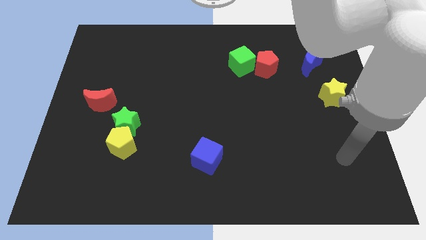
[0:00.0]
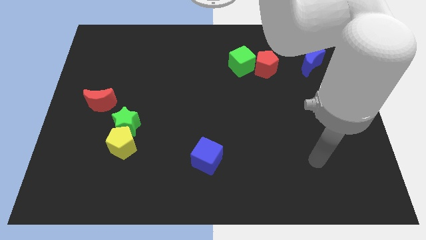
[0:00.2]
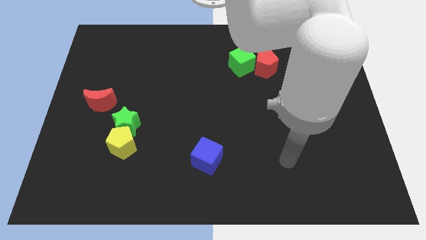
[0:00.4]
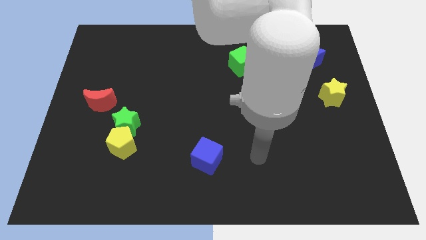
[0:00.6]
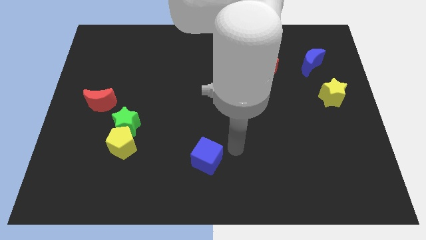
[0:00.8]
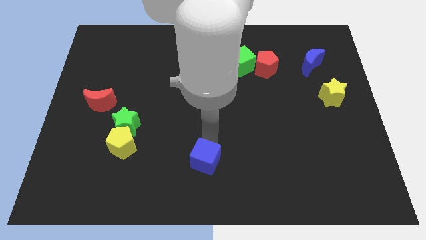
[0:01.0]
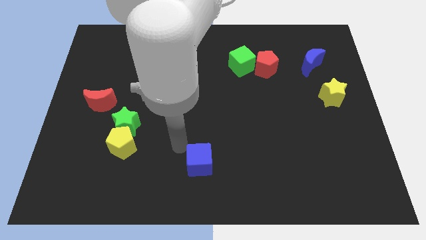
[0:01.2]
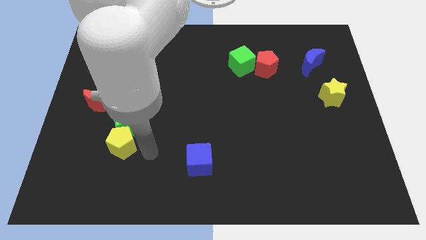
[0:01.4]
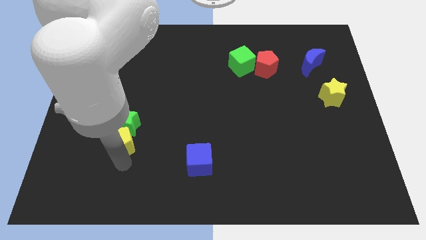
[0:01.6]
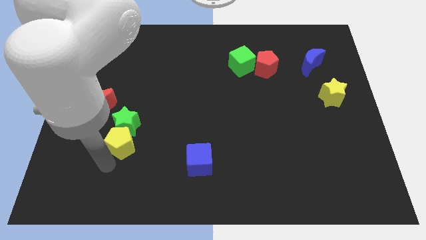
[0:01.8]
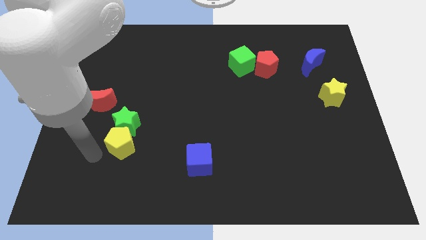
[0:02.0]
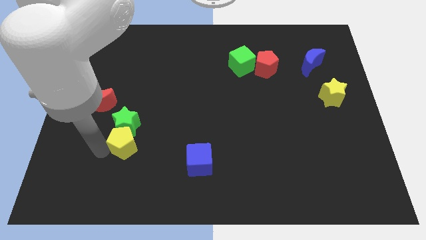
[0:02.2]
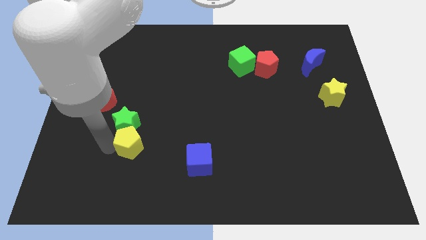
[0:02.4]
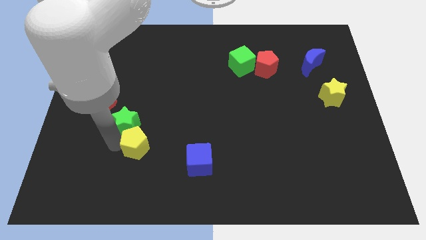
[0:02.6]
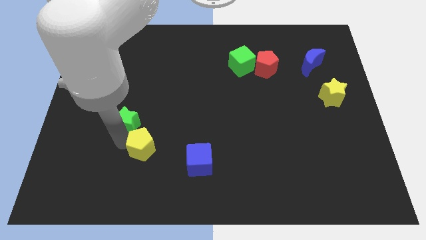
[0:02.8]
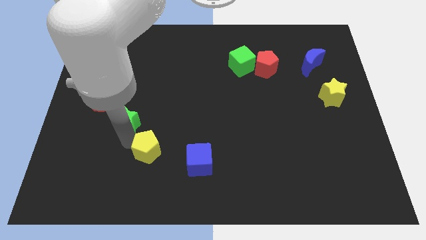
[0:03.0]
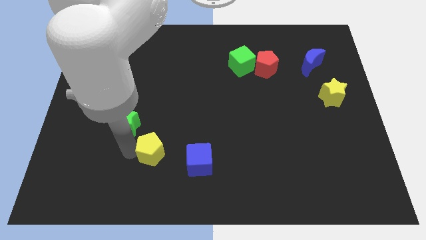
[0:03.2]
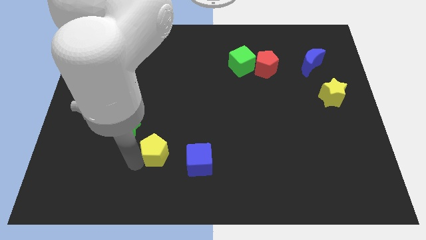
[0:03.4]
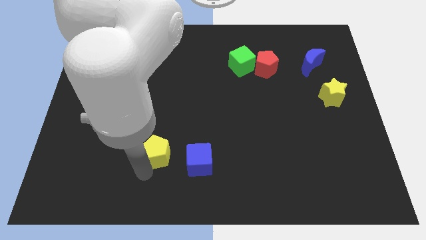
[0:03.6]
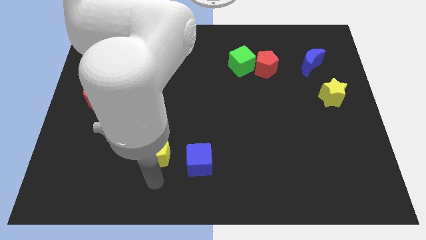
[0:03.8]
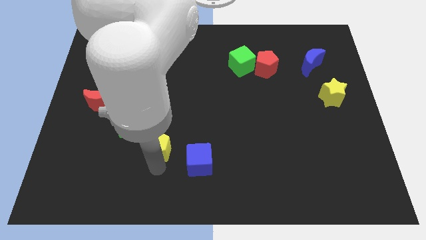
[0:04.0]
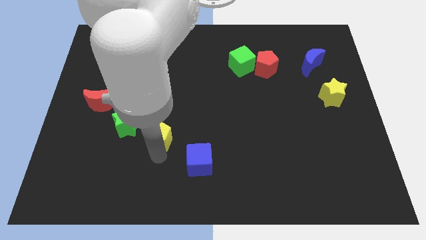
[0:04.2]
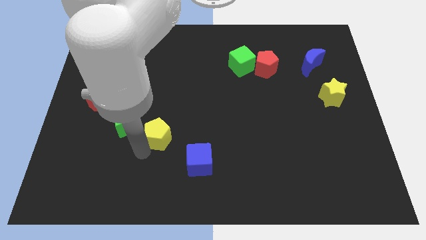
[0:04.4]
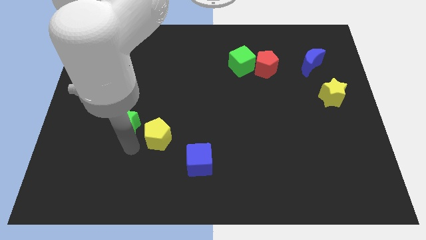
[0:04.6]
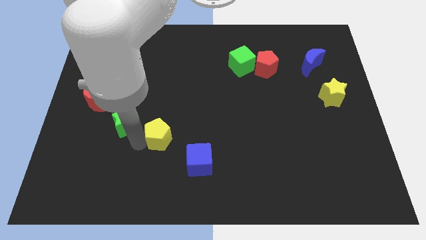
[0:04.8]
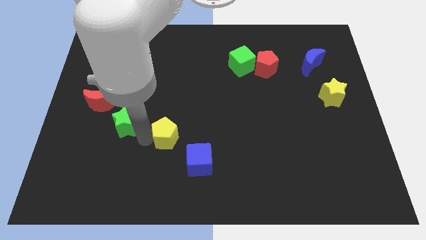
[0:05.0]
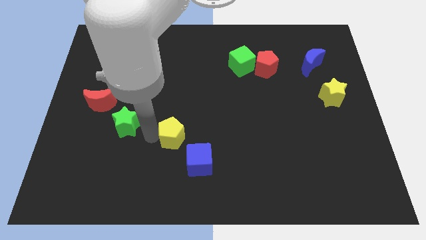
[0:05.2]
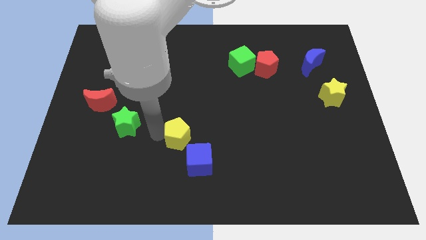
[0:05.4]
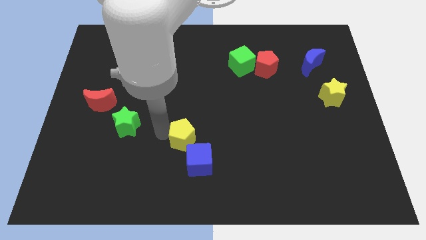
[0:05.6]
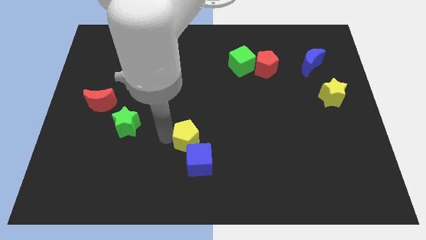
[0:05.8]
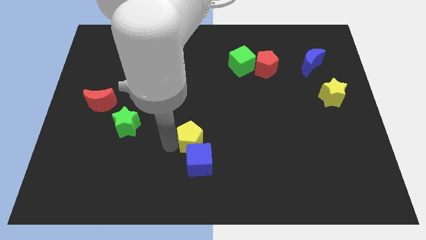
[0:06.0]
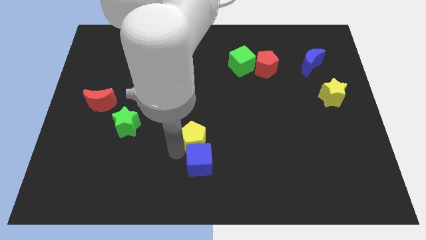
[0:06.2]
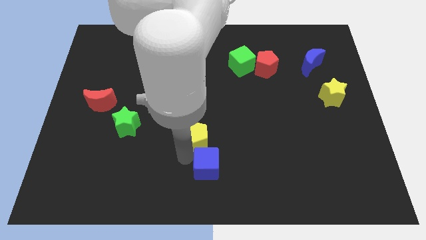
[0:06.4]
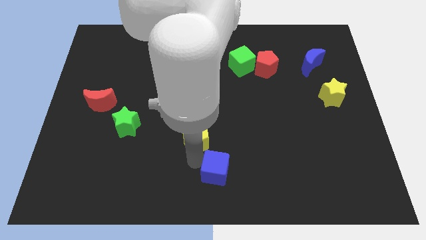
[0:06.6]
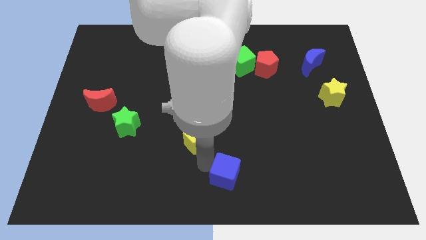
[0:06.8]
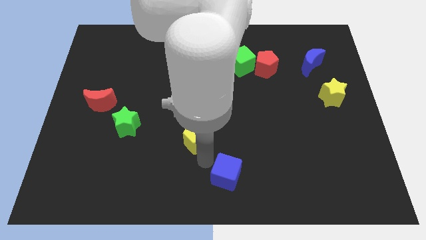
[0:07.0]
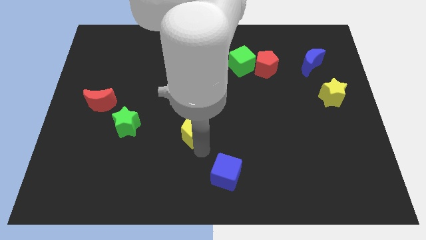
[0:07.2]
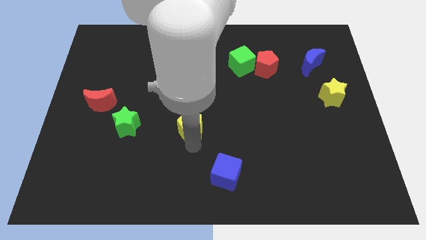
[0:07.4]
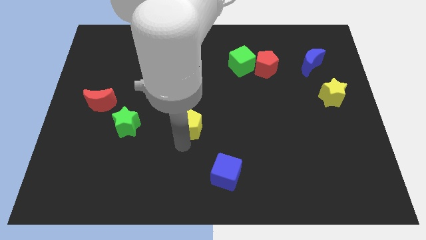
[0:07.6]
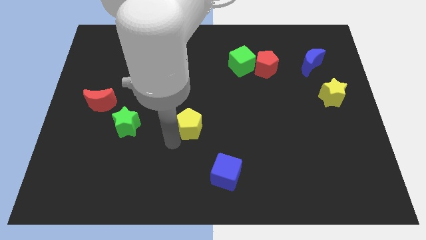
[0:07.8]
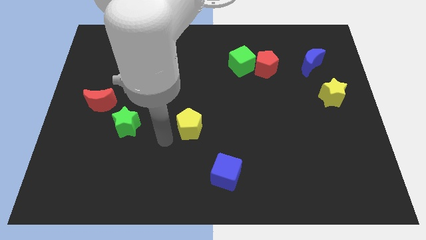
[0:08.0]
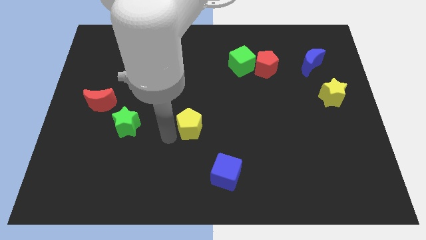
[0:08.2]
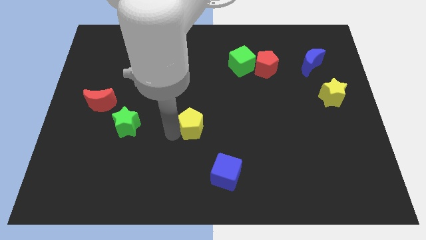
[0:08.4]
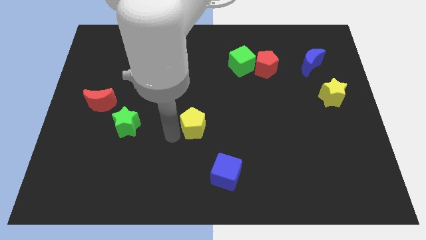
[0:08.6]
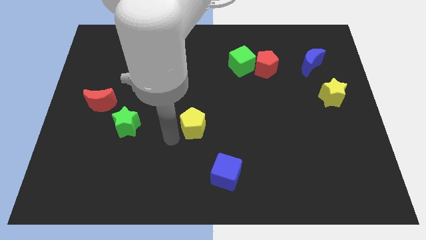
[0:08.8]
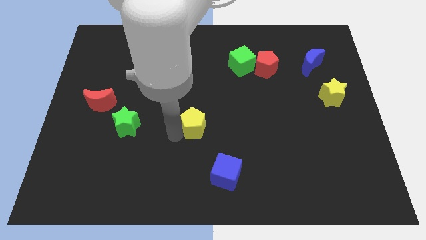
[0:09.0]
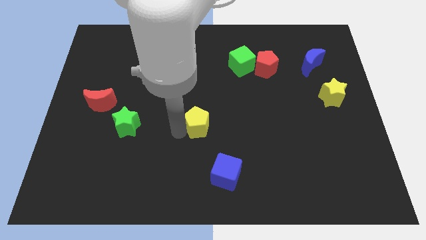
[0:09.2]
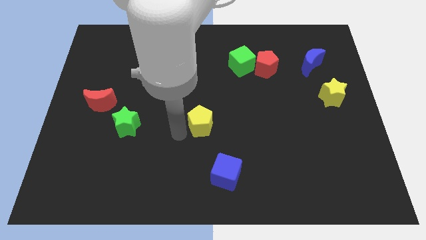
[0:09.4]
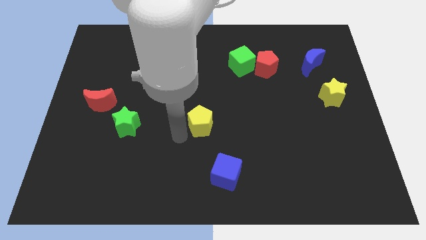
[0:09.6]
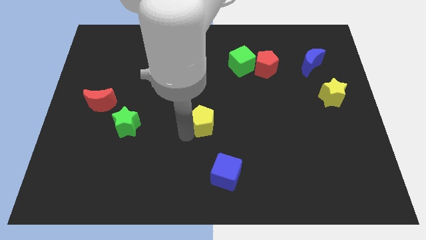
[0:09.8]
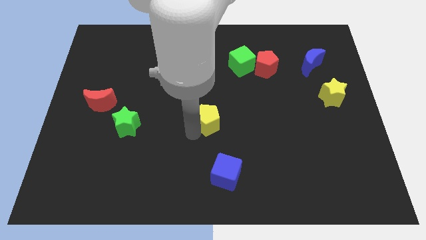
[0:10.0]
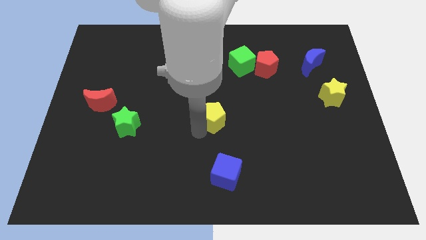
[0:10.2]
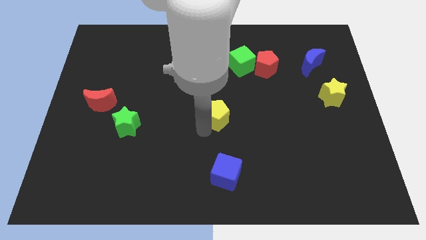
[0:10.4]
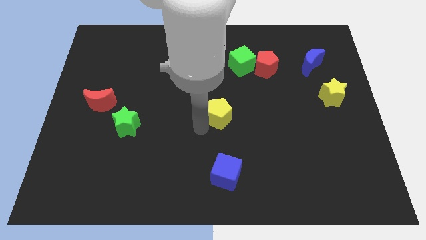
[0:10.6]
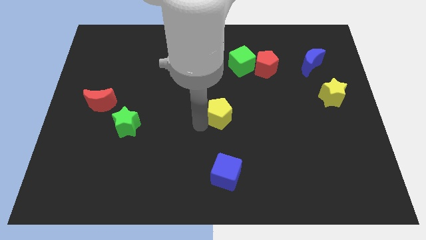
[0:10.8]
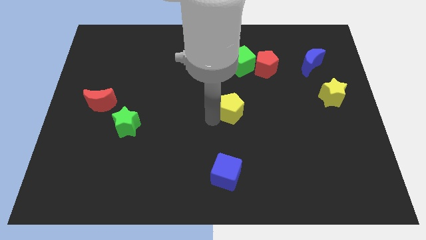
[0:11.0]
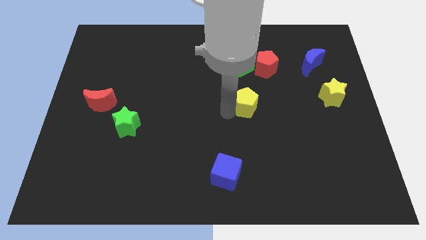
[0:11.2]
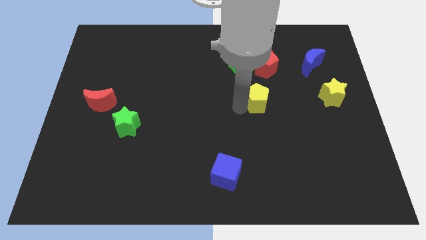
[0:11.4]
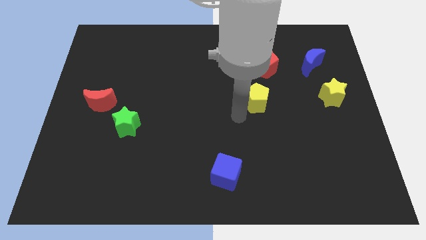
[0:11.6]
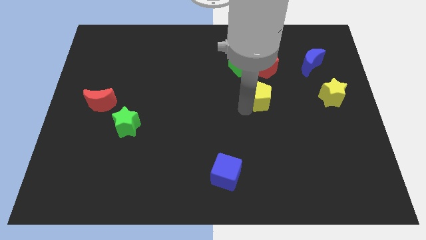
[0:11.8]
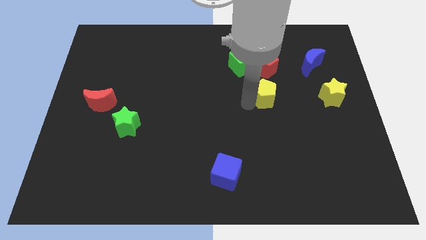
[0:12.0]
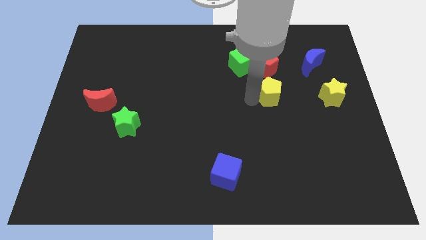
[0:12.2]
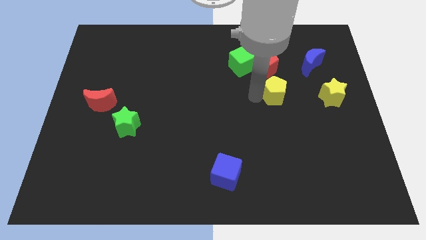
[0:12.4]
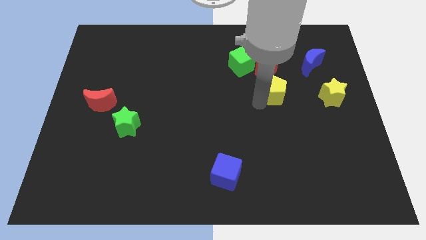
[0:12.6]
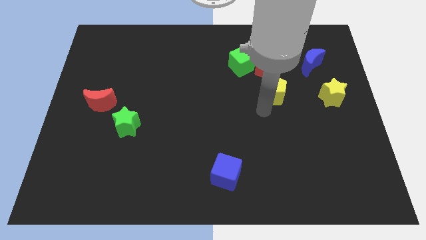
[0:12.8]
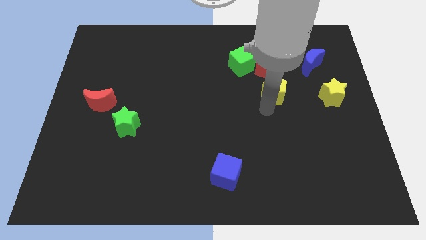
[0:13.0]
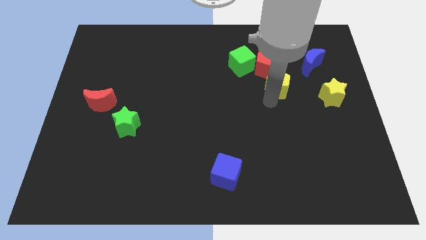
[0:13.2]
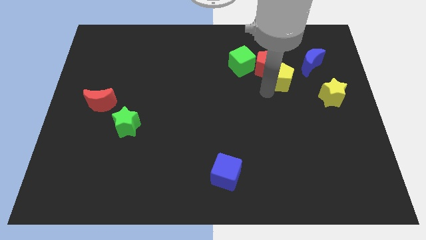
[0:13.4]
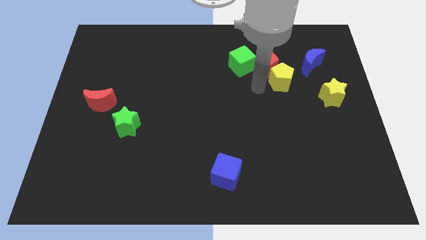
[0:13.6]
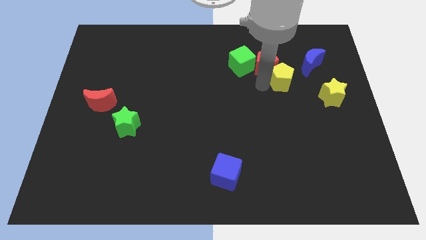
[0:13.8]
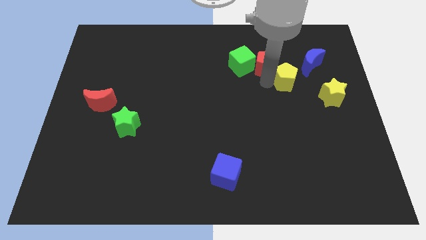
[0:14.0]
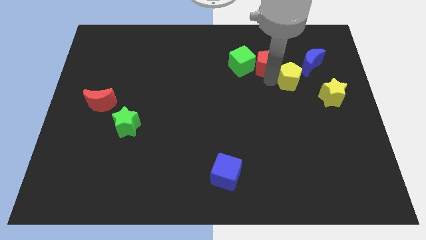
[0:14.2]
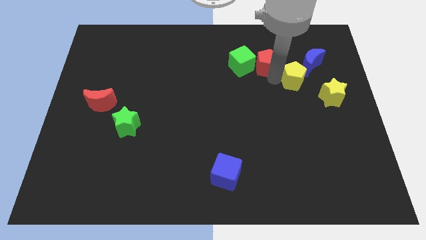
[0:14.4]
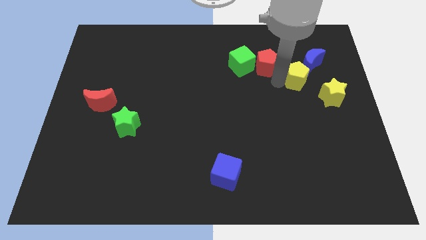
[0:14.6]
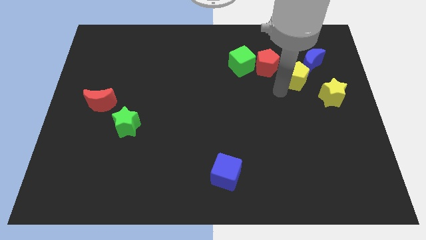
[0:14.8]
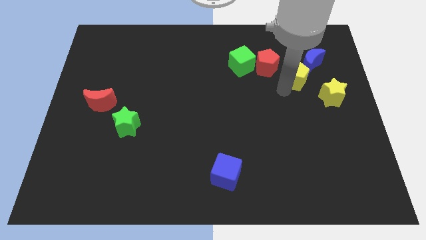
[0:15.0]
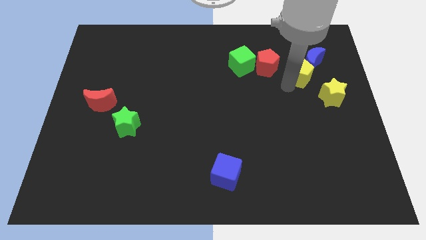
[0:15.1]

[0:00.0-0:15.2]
slide the yellow pentagon close to the blue moon
